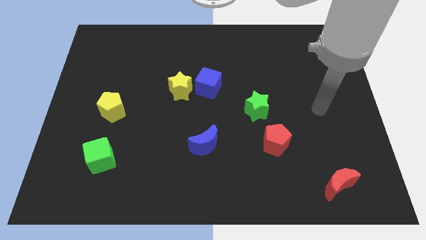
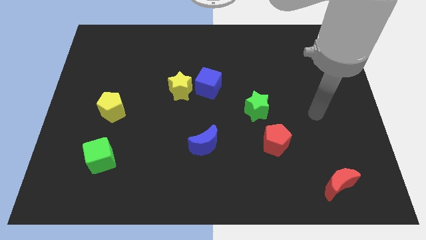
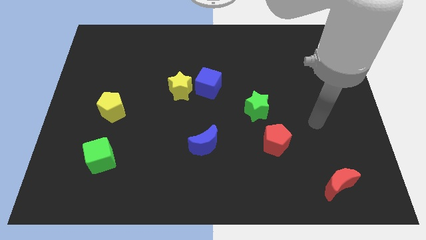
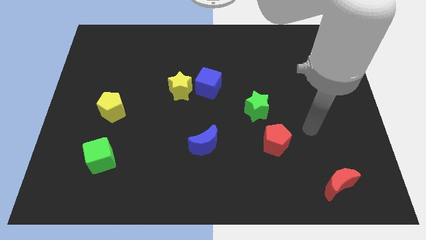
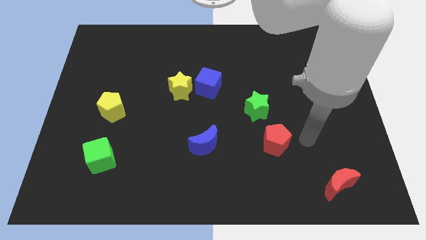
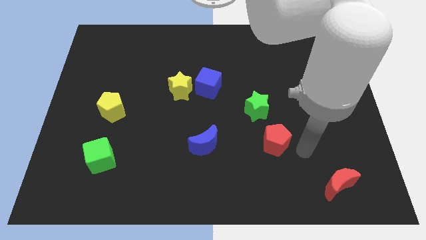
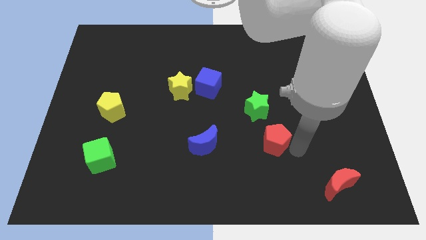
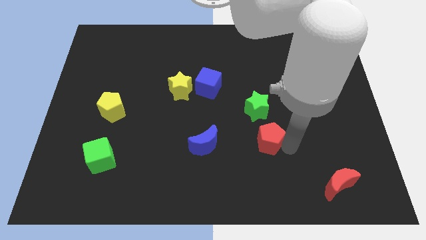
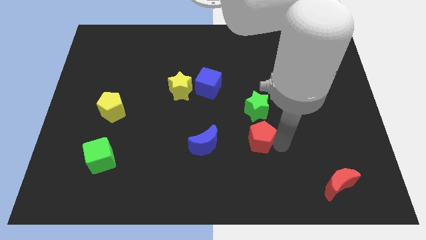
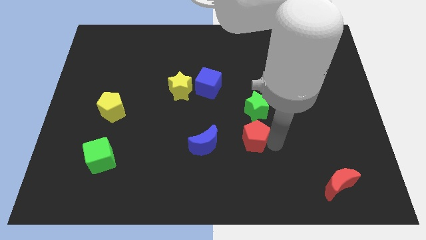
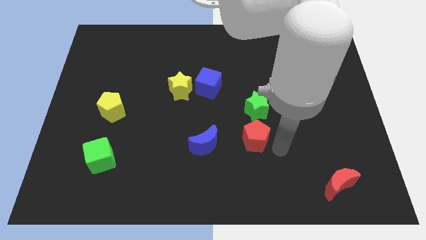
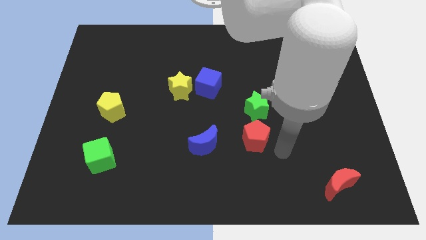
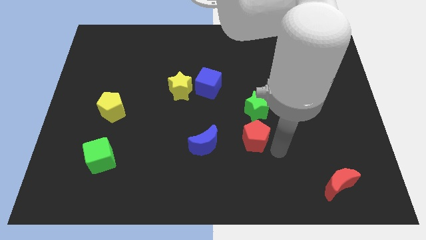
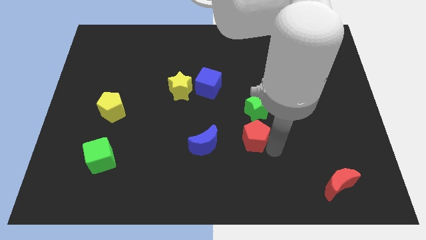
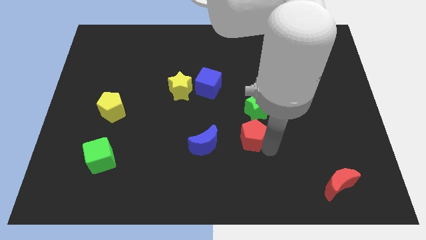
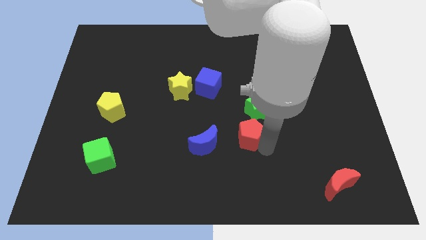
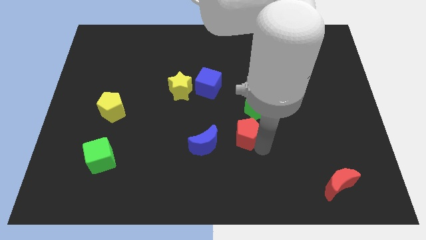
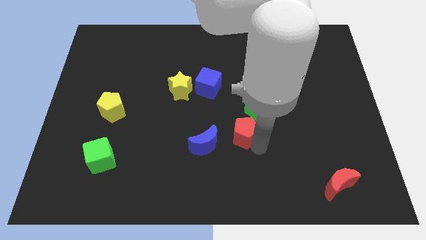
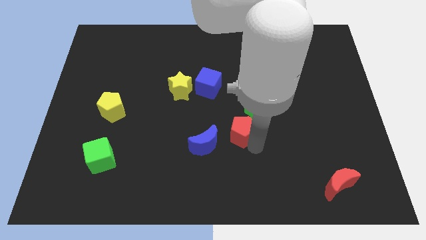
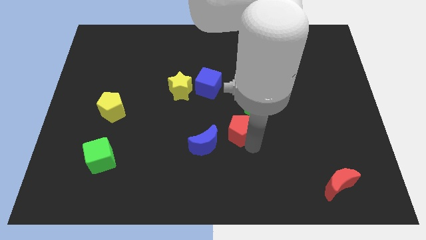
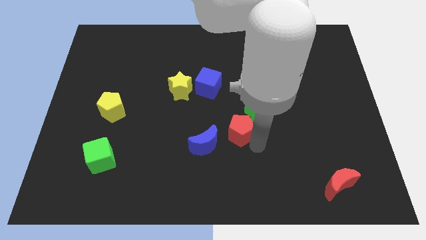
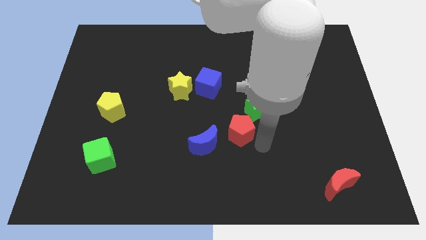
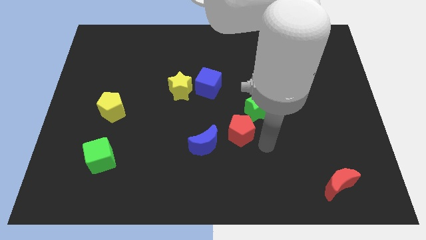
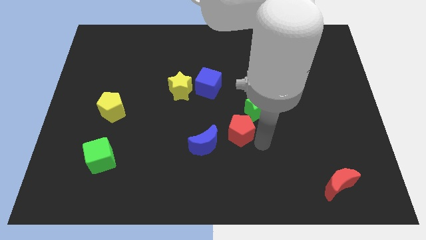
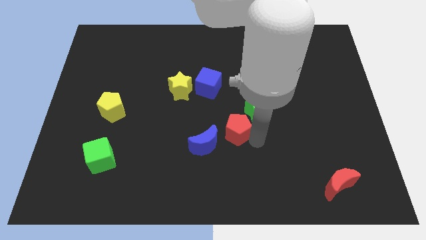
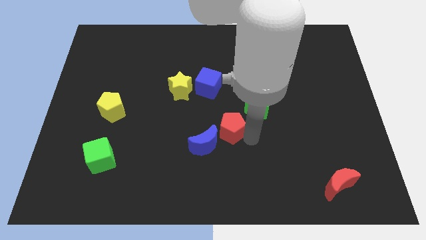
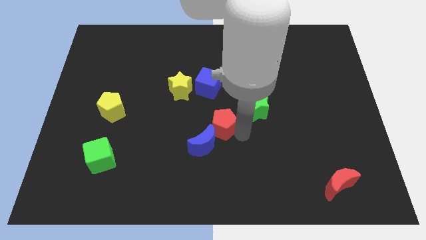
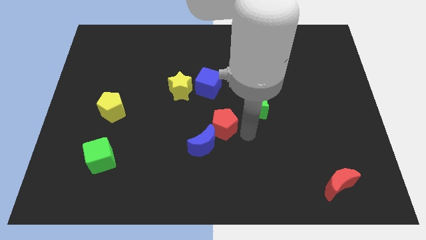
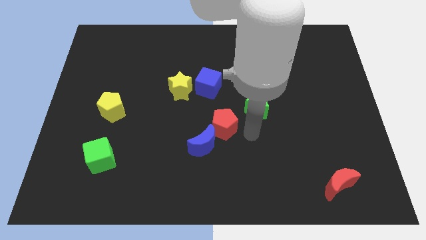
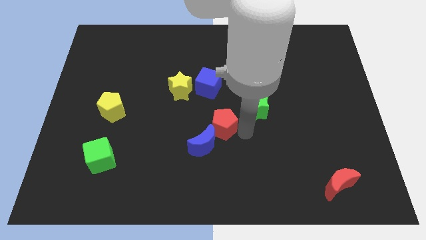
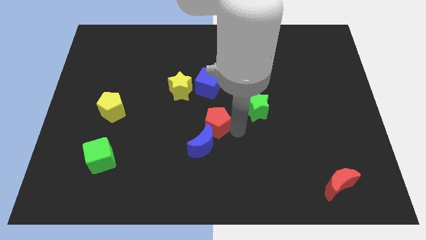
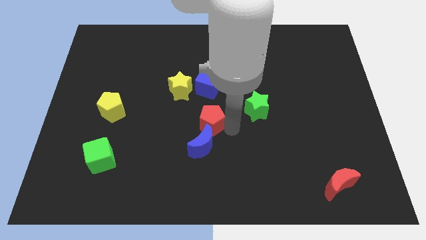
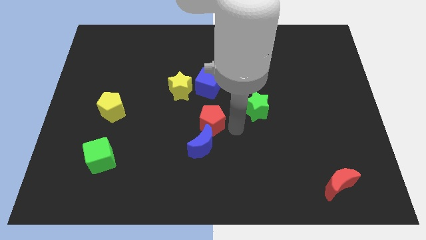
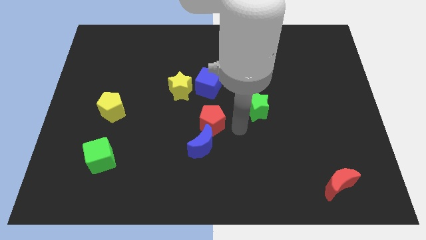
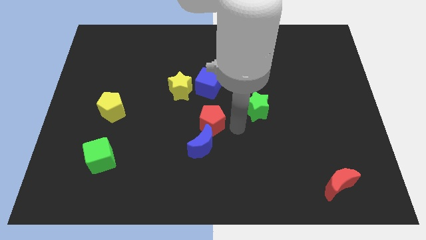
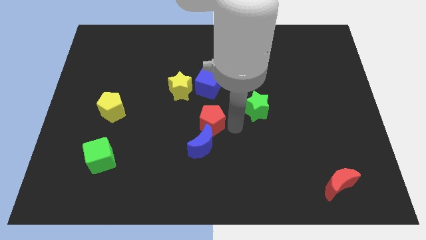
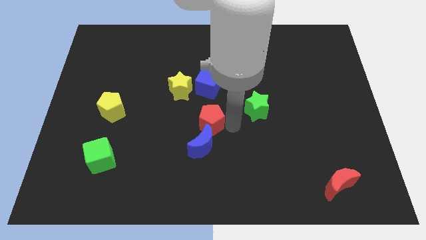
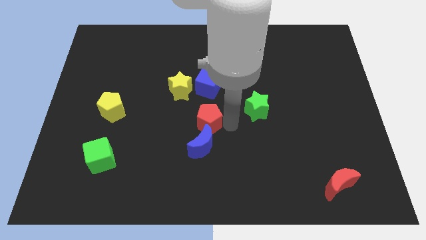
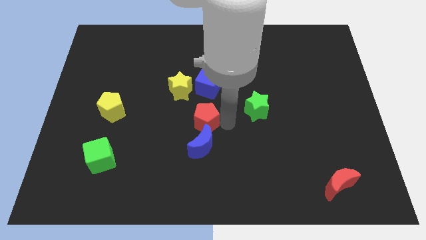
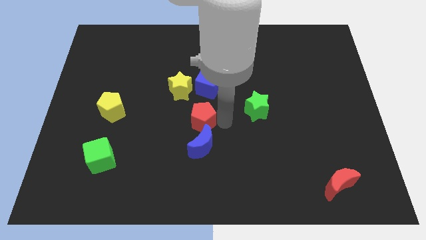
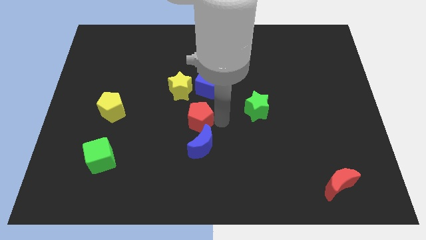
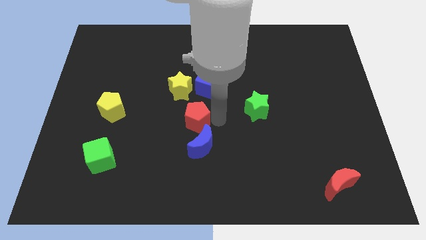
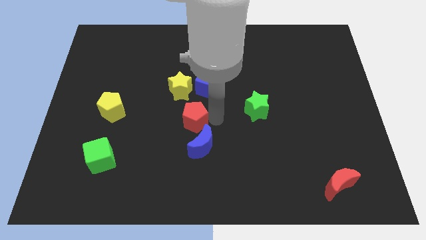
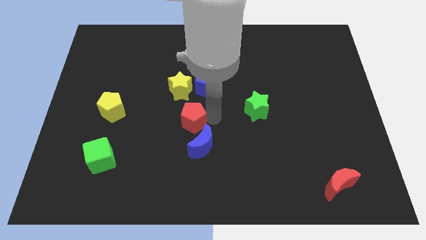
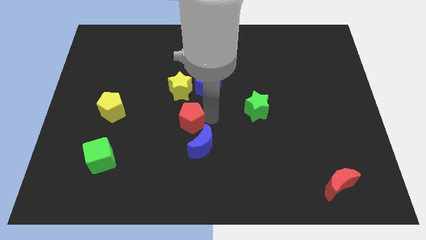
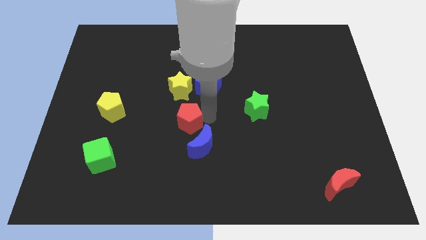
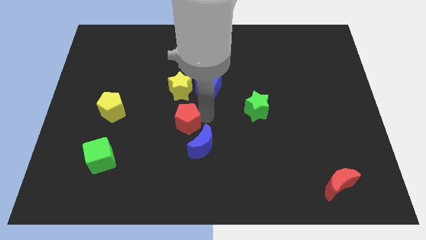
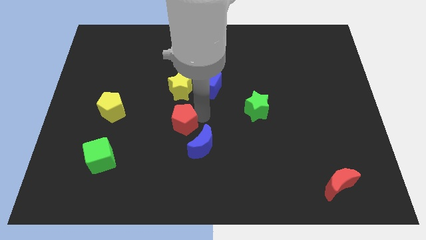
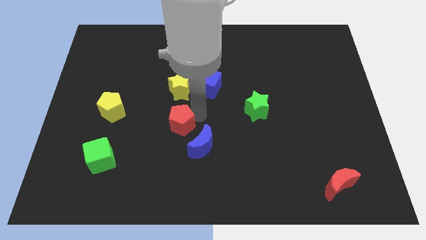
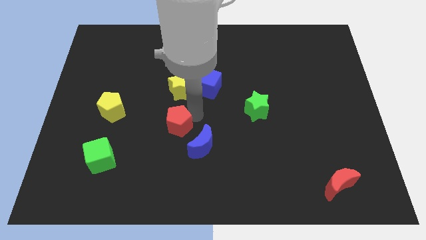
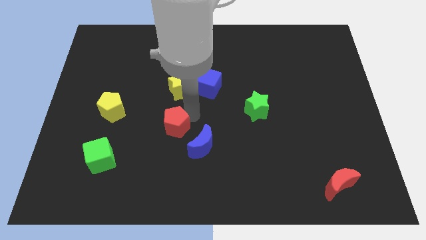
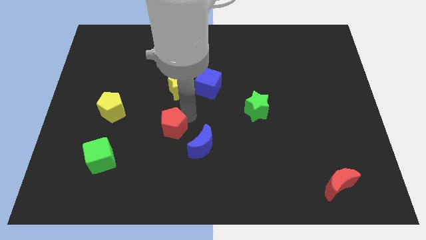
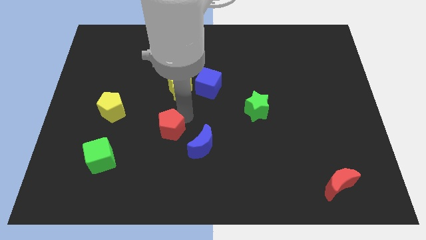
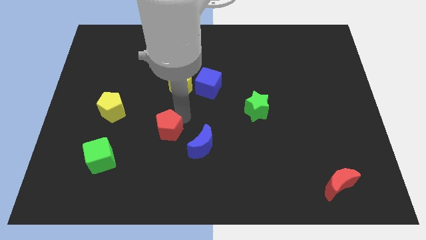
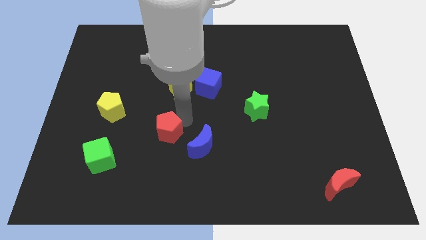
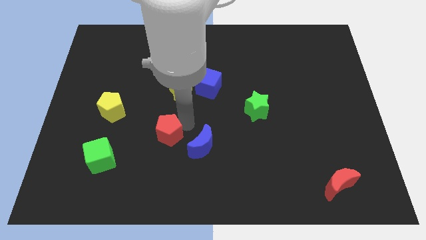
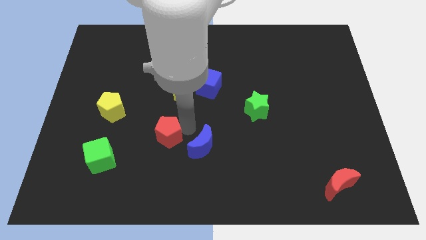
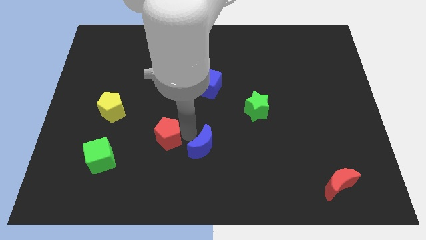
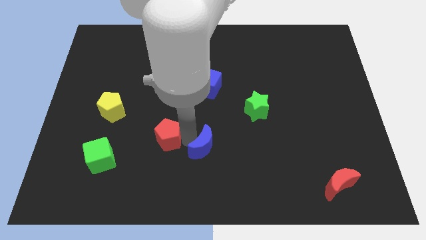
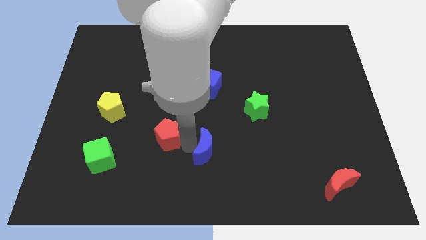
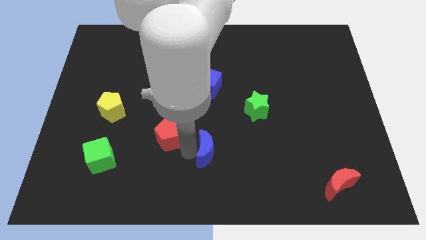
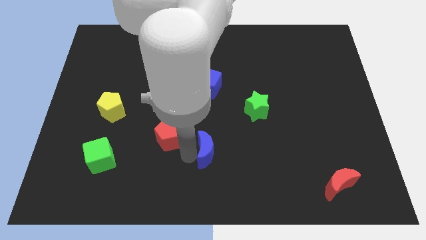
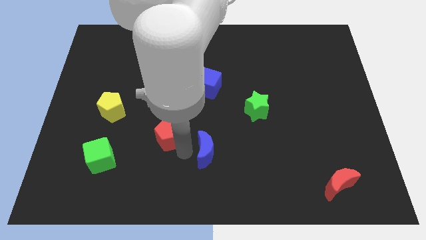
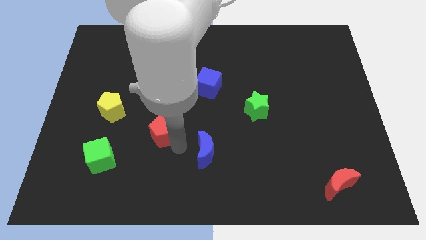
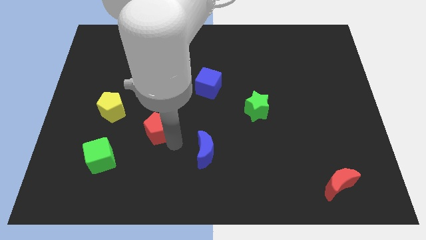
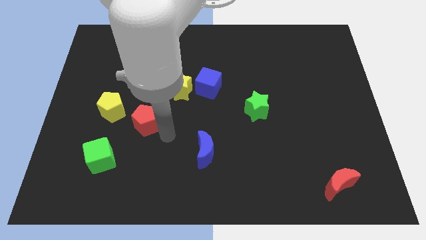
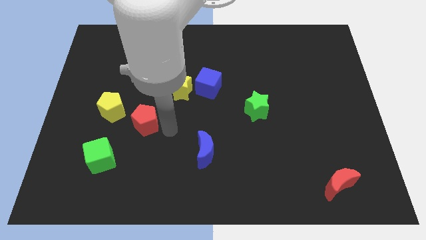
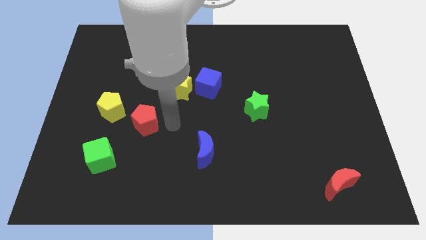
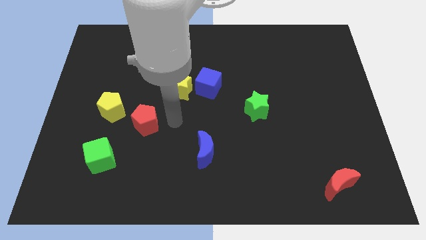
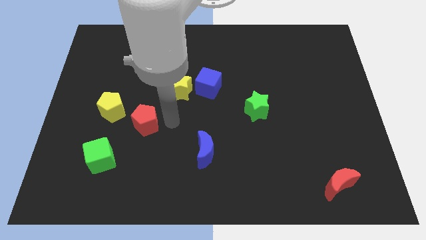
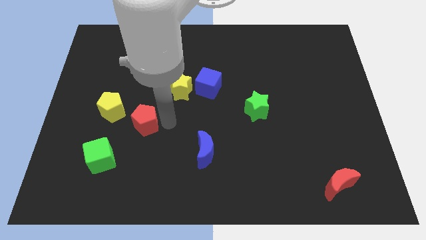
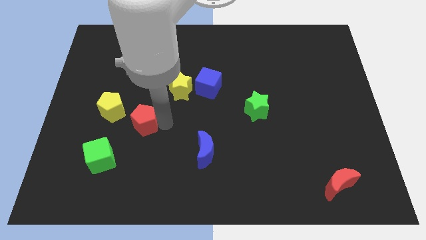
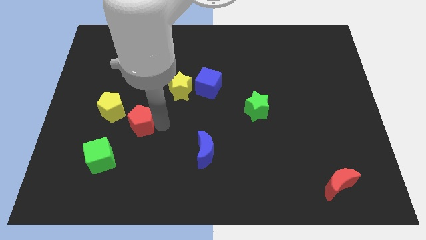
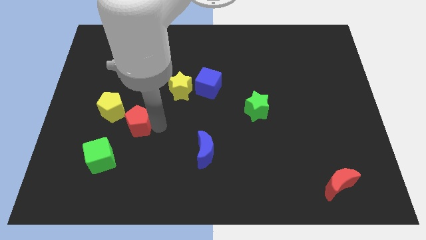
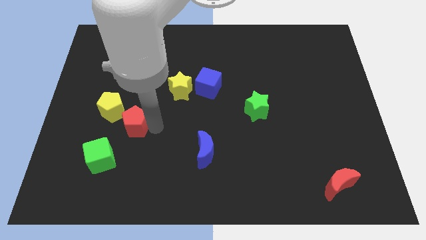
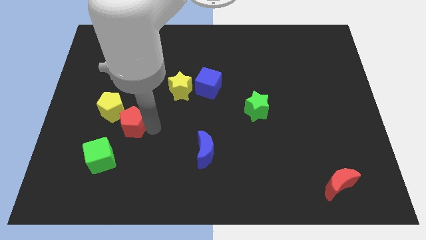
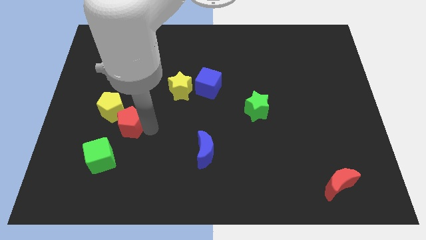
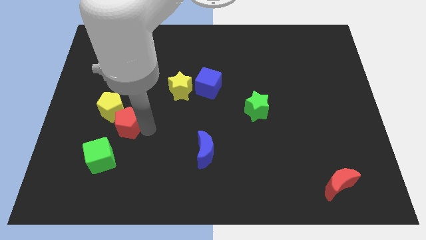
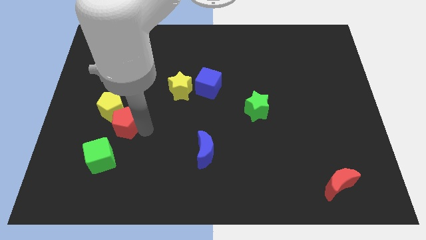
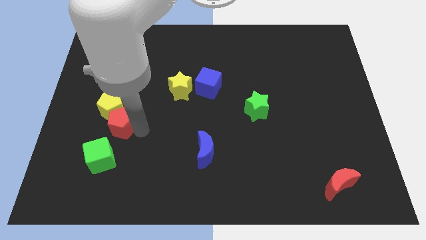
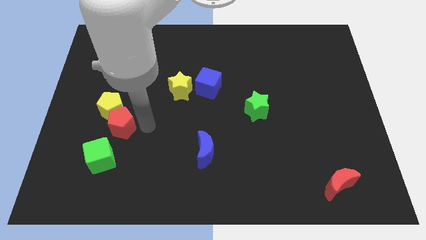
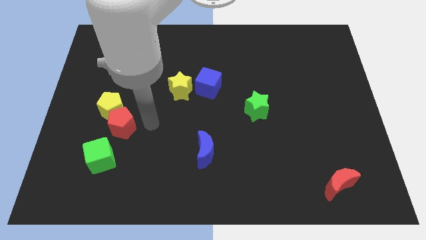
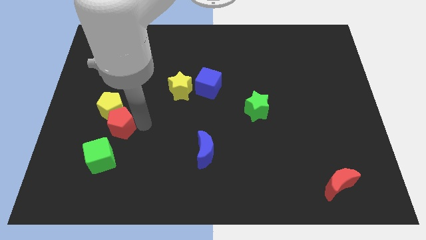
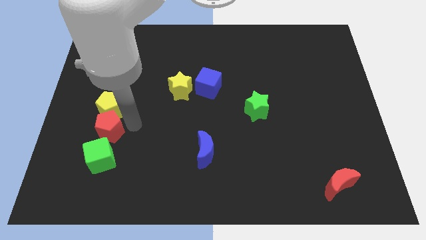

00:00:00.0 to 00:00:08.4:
push the red pentagon to the bottom left side of the yellow pentagon
